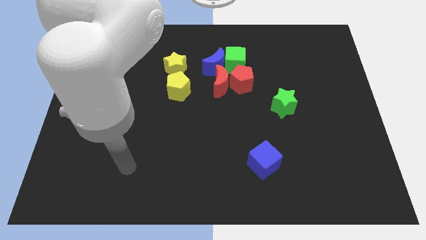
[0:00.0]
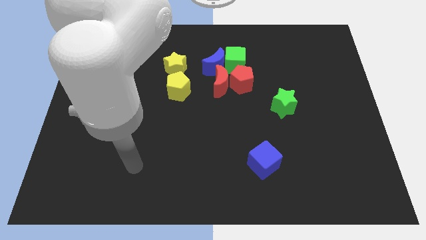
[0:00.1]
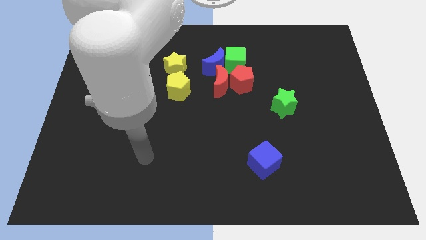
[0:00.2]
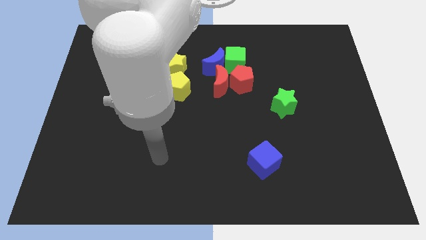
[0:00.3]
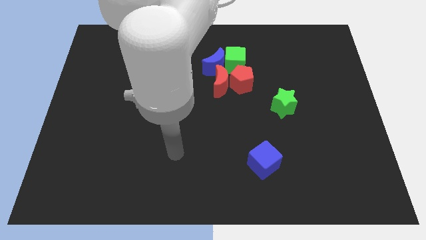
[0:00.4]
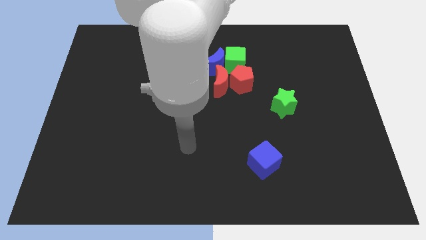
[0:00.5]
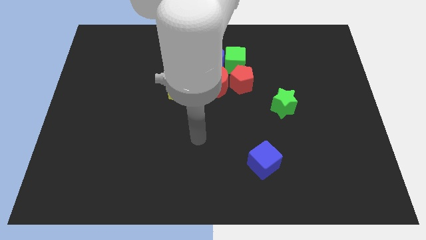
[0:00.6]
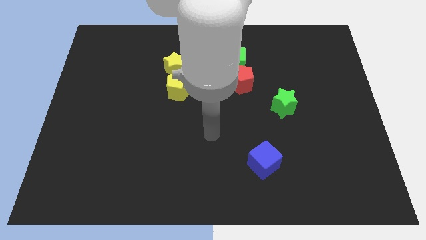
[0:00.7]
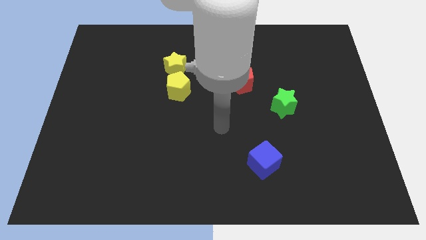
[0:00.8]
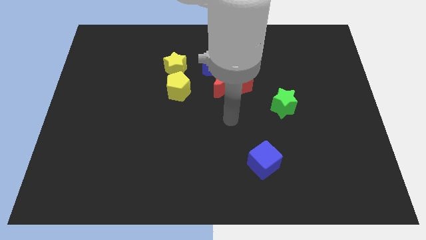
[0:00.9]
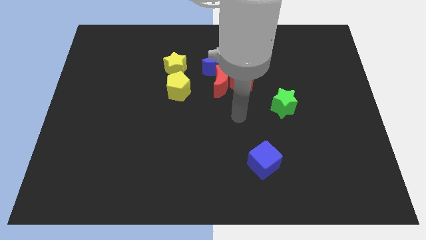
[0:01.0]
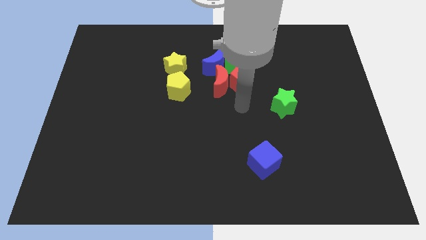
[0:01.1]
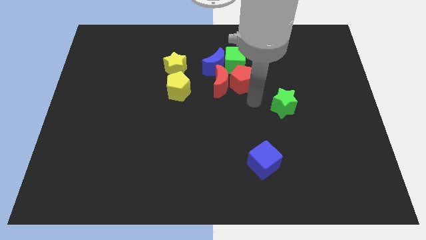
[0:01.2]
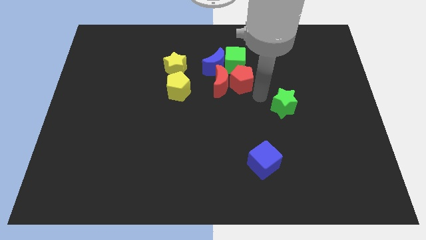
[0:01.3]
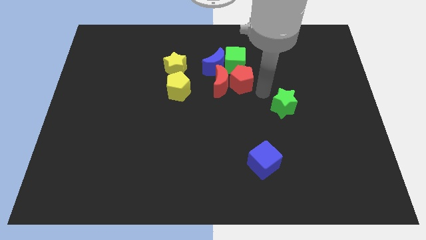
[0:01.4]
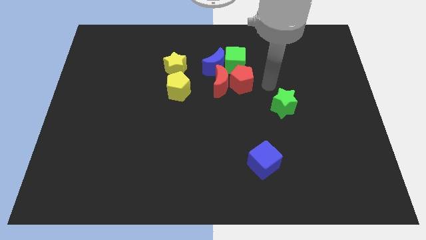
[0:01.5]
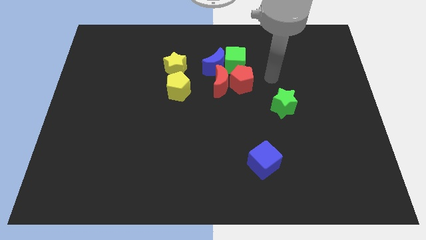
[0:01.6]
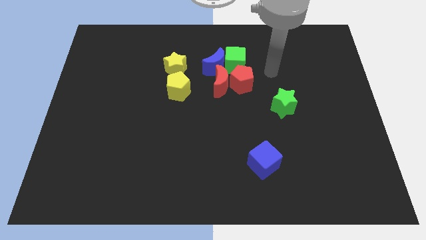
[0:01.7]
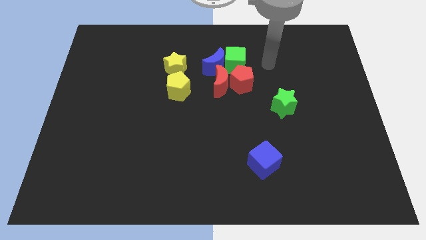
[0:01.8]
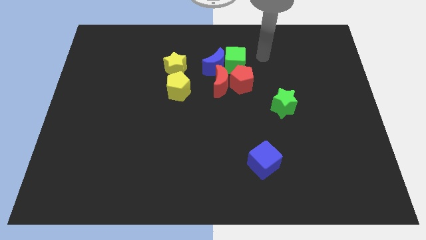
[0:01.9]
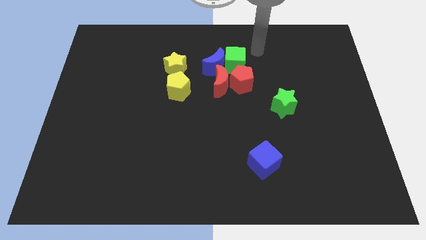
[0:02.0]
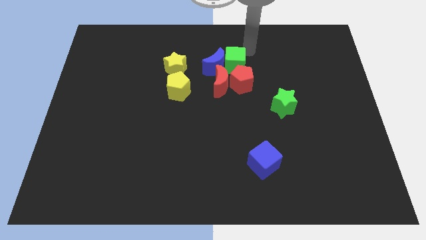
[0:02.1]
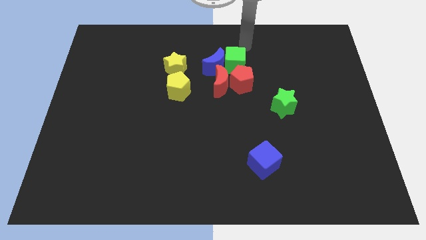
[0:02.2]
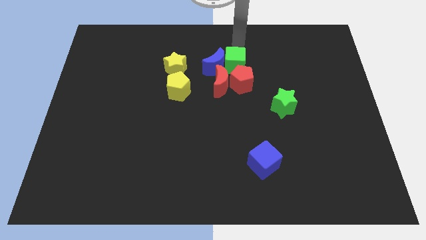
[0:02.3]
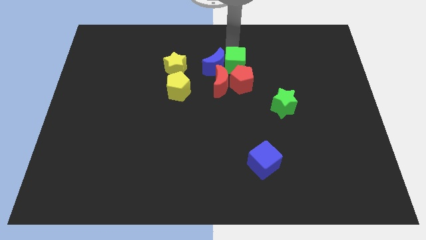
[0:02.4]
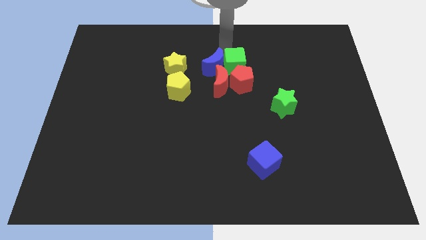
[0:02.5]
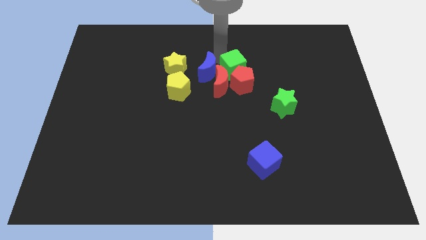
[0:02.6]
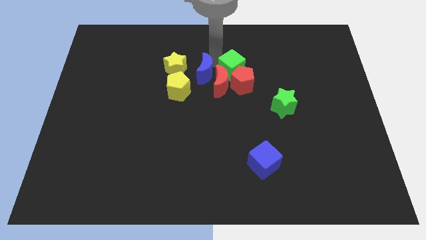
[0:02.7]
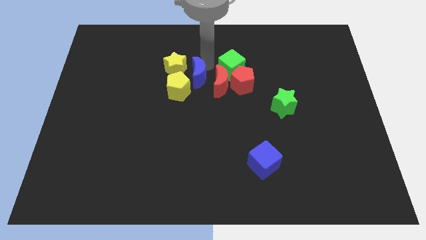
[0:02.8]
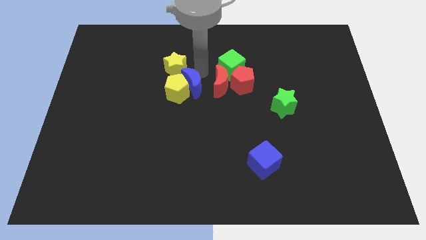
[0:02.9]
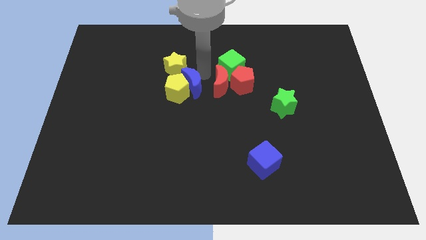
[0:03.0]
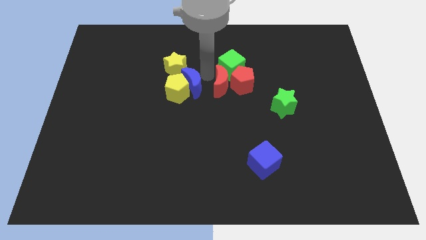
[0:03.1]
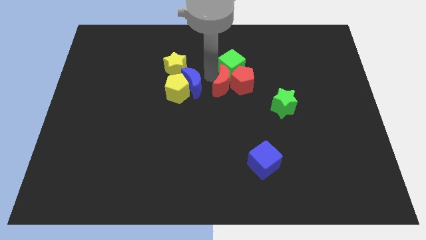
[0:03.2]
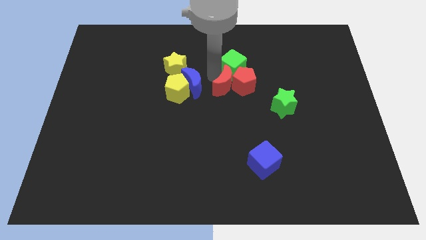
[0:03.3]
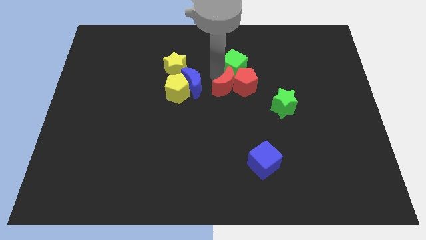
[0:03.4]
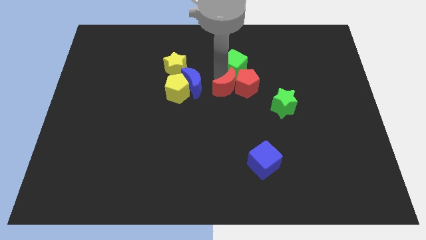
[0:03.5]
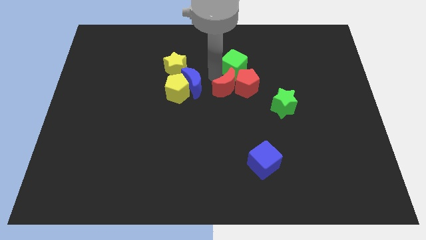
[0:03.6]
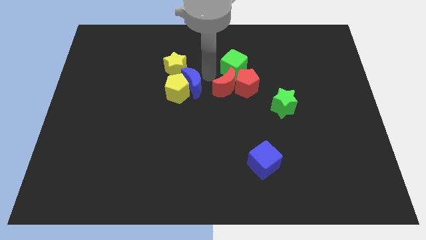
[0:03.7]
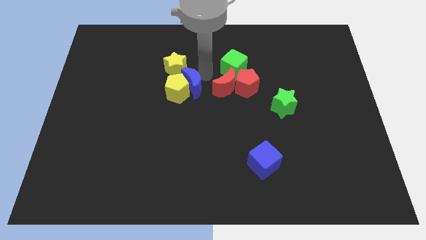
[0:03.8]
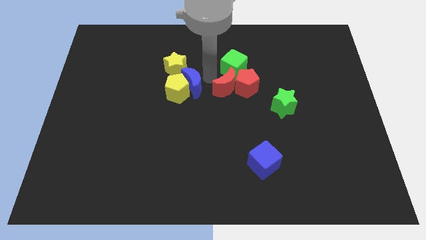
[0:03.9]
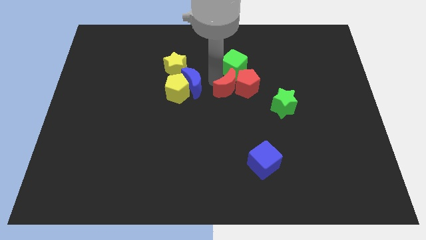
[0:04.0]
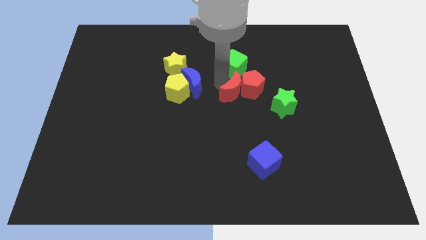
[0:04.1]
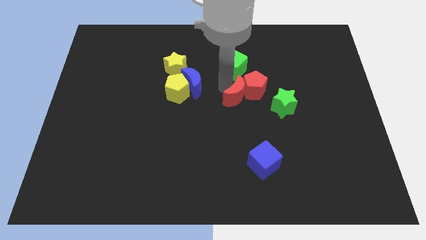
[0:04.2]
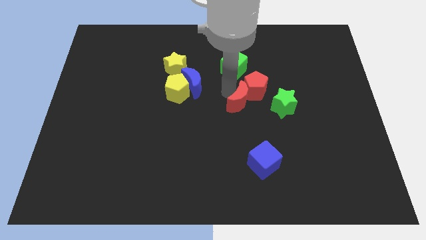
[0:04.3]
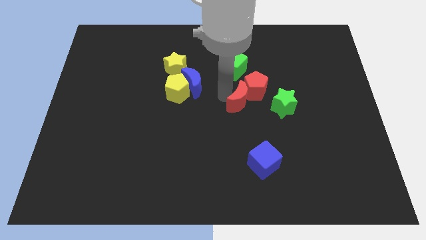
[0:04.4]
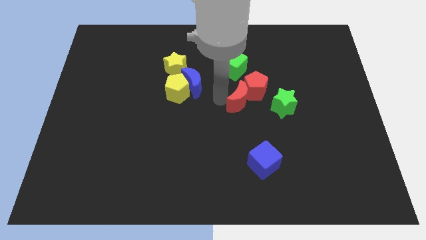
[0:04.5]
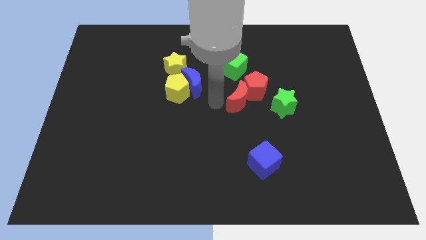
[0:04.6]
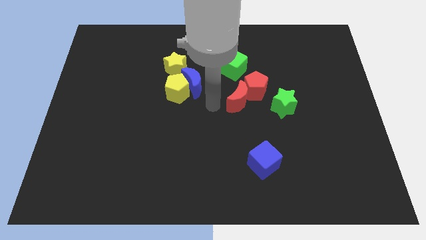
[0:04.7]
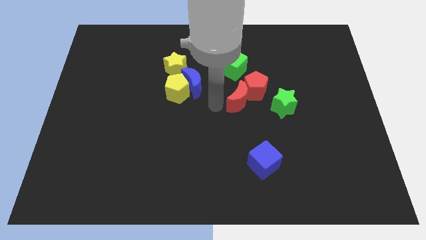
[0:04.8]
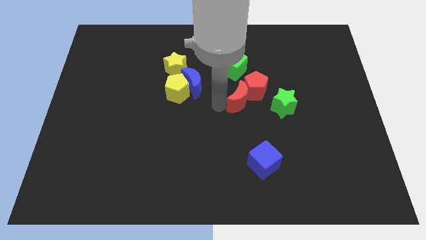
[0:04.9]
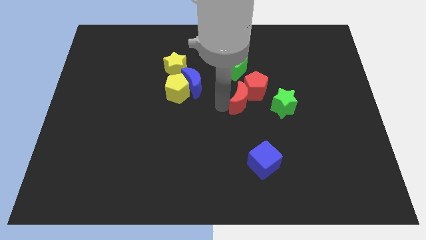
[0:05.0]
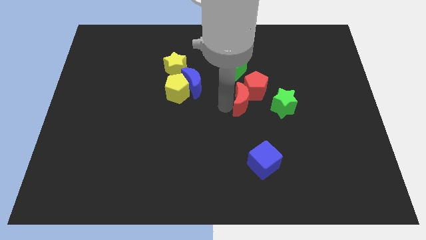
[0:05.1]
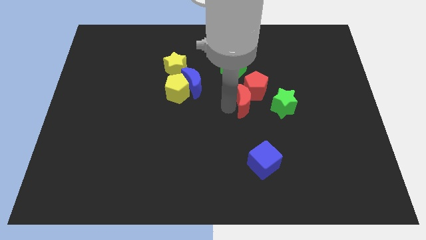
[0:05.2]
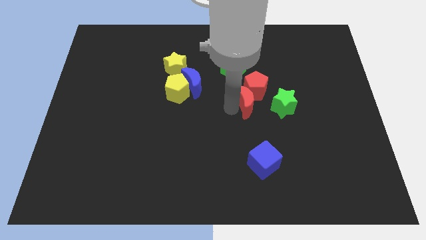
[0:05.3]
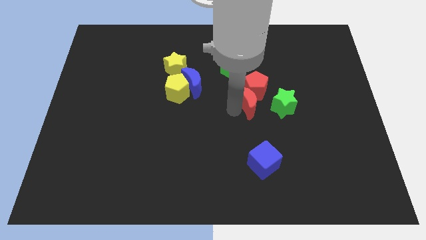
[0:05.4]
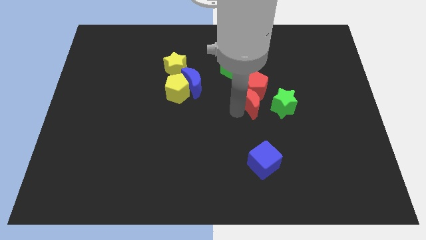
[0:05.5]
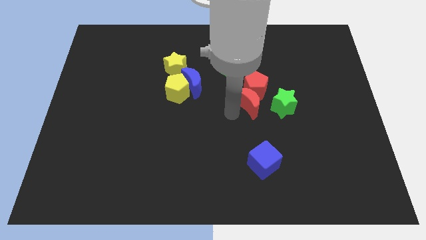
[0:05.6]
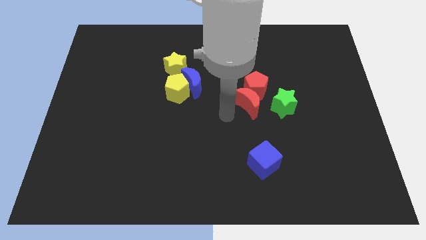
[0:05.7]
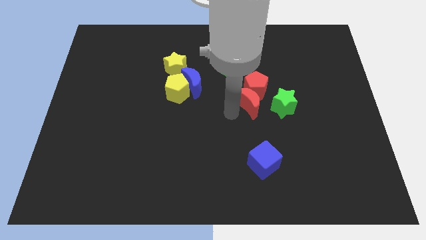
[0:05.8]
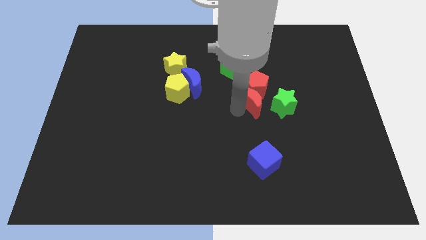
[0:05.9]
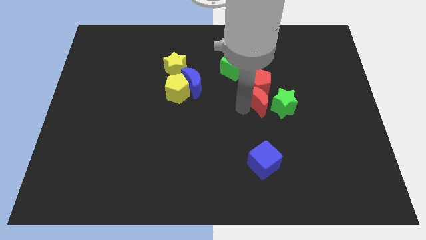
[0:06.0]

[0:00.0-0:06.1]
push the red moon right somewhat

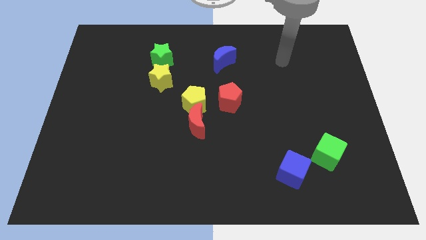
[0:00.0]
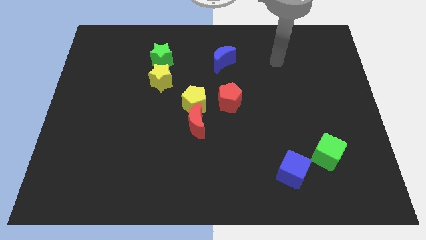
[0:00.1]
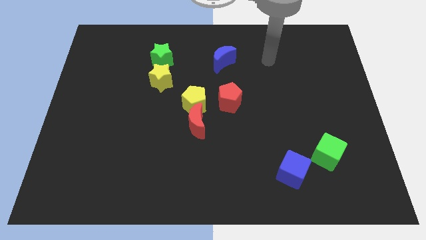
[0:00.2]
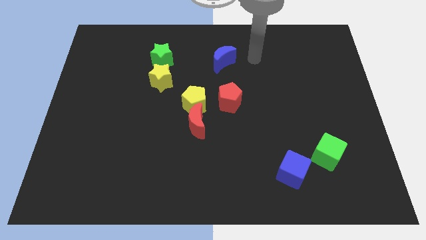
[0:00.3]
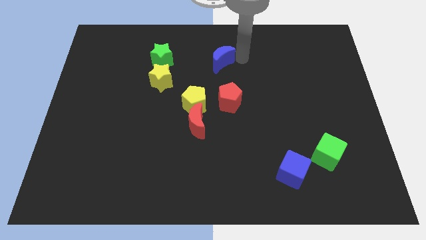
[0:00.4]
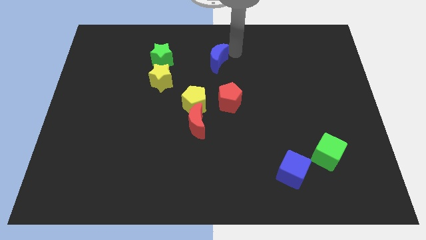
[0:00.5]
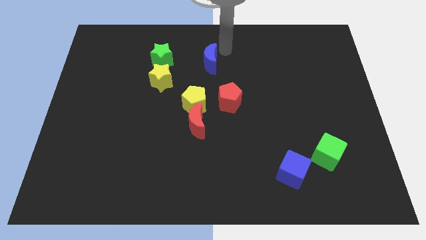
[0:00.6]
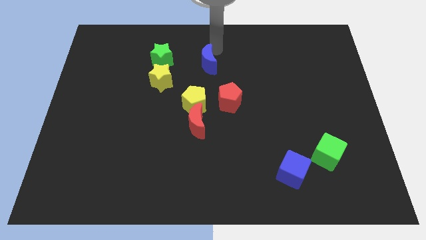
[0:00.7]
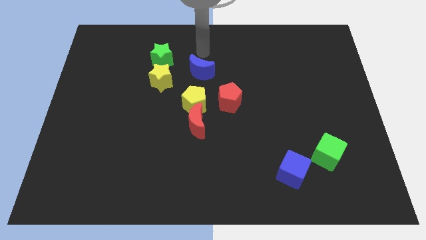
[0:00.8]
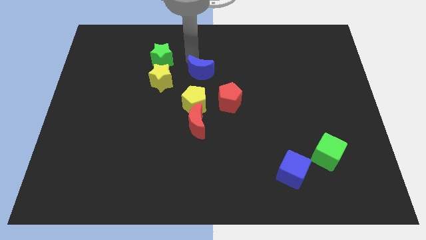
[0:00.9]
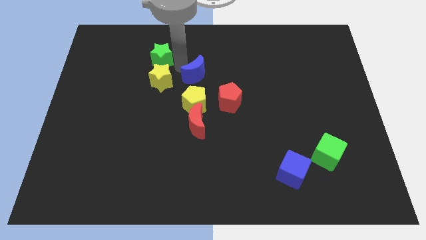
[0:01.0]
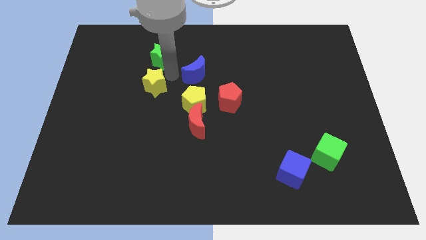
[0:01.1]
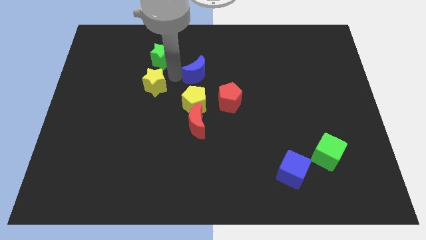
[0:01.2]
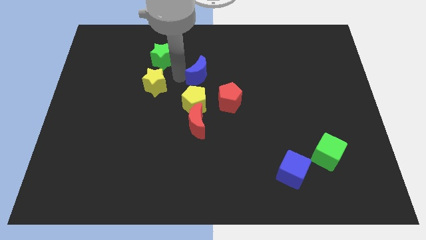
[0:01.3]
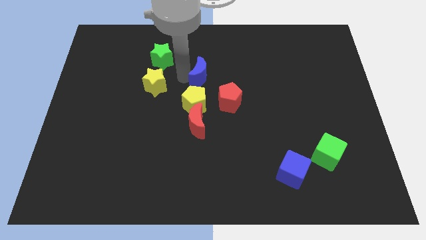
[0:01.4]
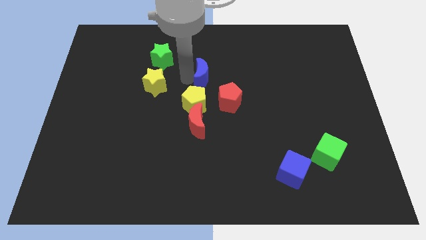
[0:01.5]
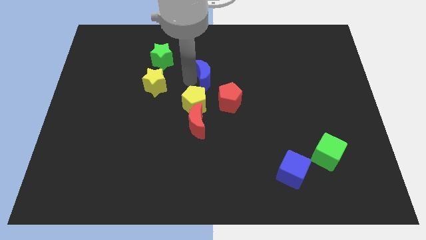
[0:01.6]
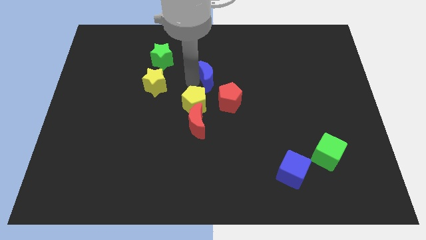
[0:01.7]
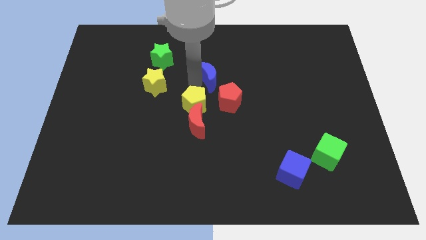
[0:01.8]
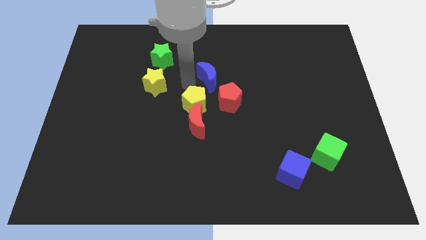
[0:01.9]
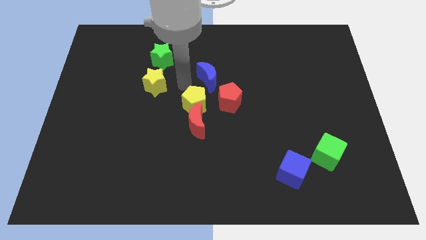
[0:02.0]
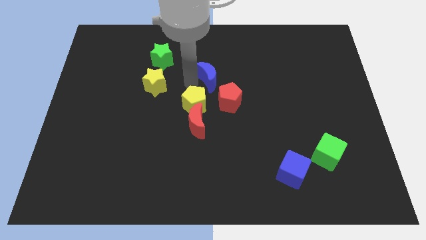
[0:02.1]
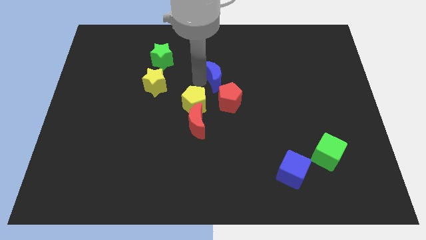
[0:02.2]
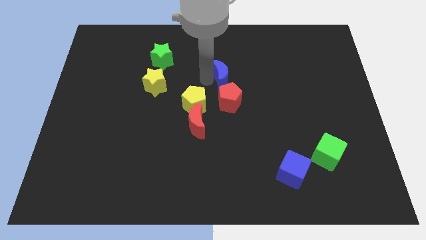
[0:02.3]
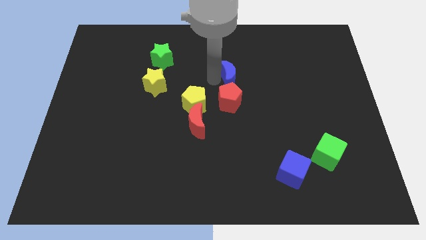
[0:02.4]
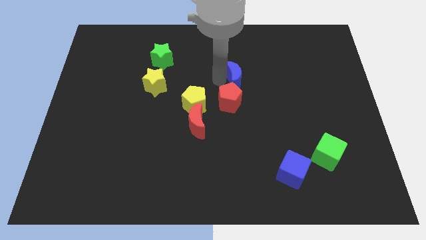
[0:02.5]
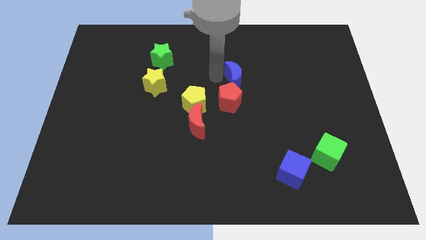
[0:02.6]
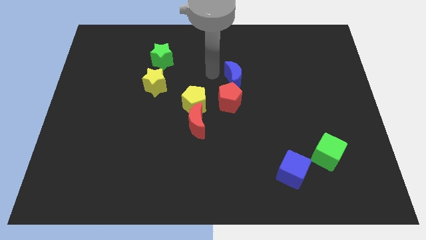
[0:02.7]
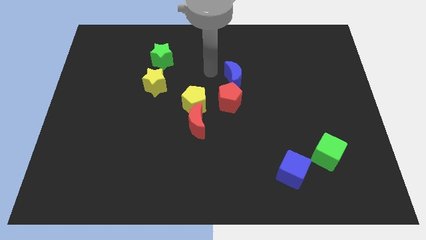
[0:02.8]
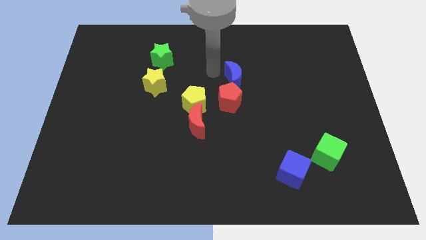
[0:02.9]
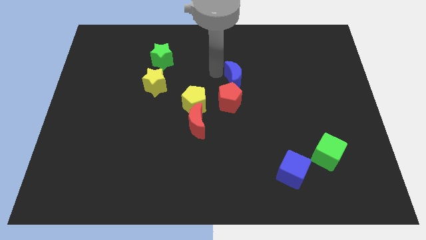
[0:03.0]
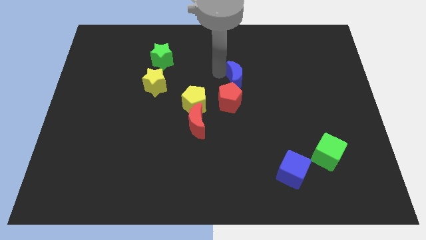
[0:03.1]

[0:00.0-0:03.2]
move the blue moon downwards and right diagonally a little bit
